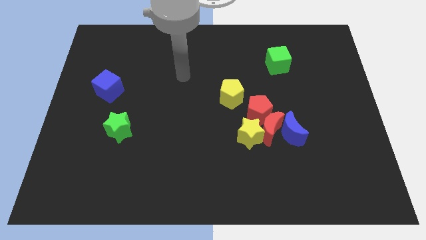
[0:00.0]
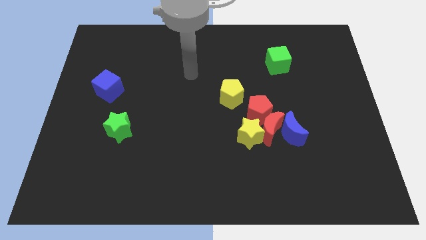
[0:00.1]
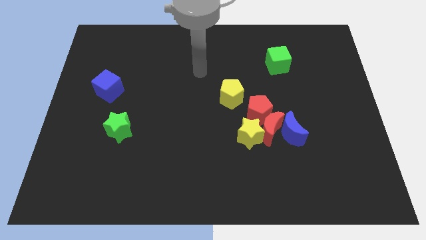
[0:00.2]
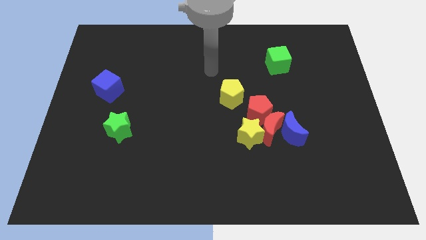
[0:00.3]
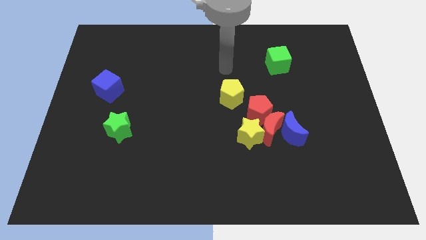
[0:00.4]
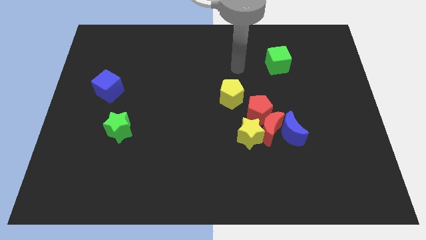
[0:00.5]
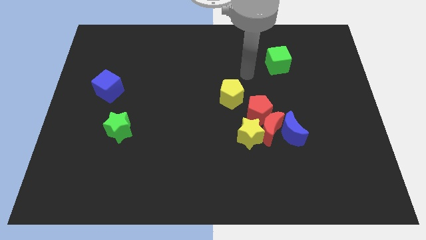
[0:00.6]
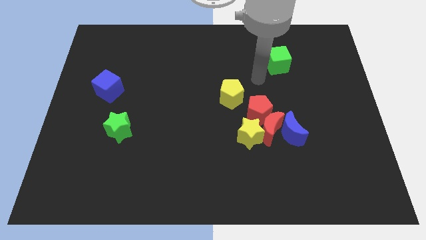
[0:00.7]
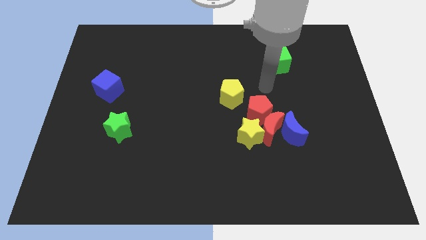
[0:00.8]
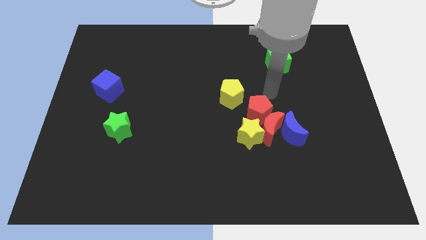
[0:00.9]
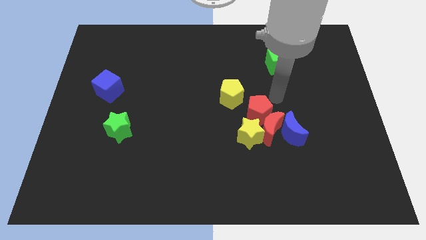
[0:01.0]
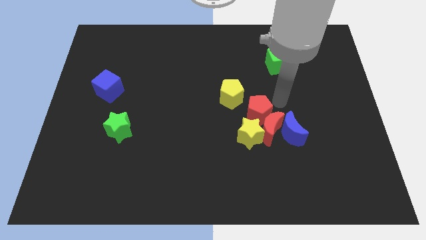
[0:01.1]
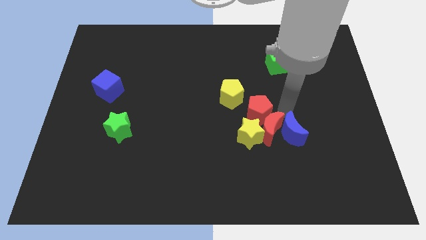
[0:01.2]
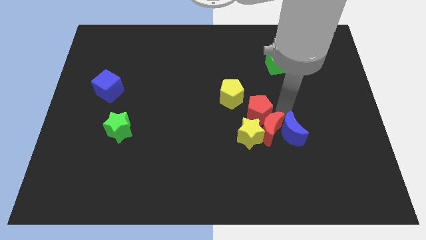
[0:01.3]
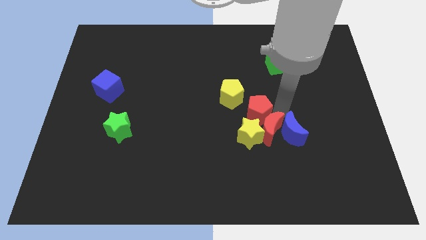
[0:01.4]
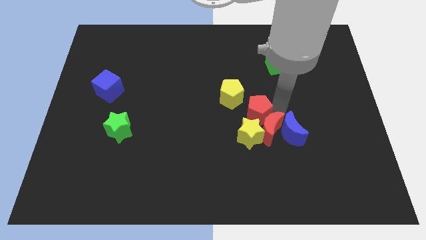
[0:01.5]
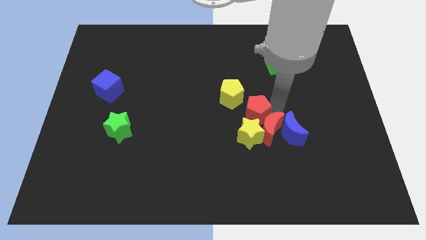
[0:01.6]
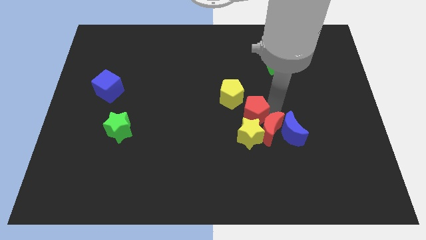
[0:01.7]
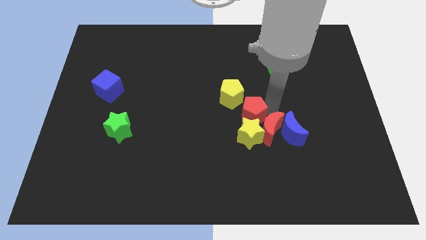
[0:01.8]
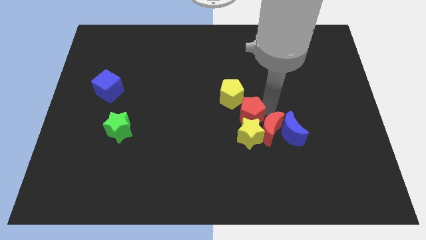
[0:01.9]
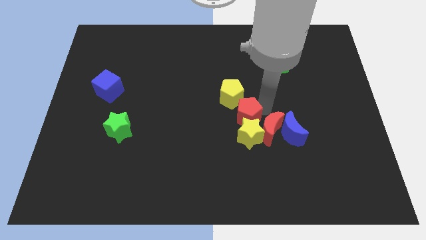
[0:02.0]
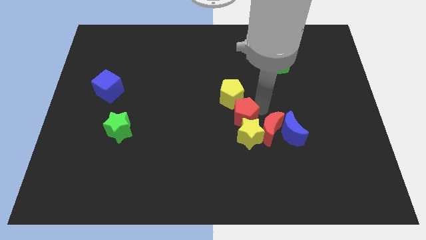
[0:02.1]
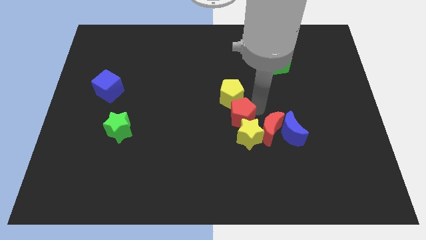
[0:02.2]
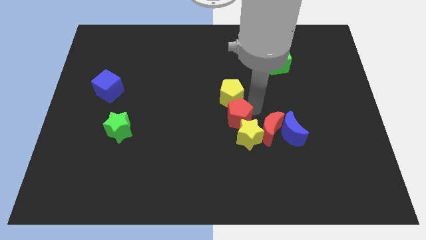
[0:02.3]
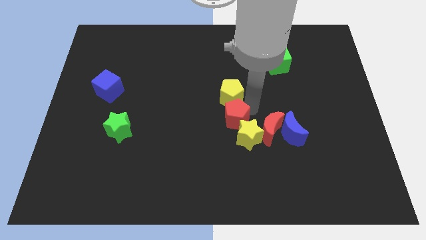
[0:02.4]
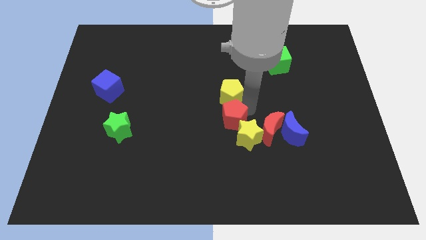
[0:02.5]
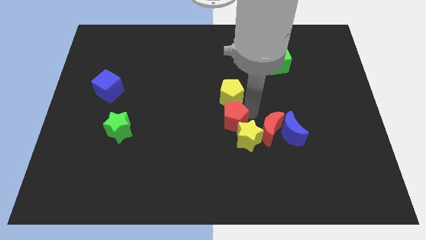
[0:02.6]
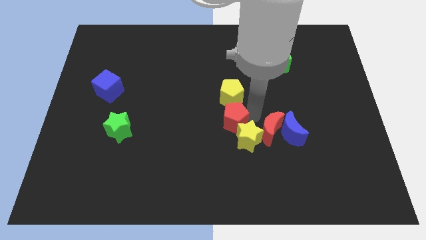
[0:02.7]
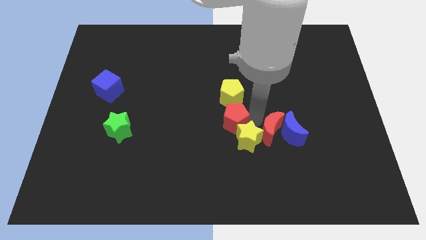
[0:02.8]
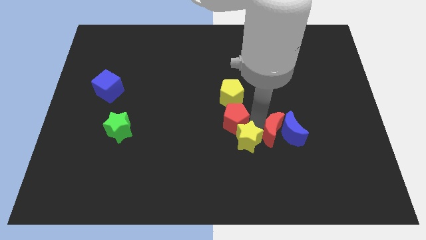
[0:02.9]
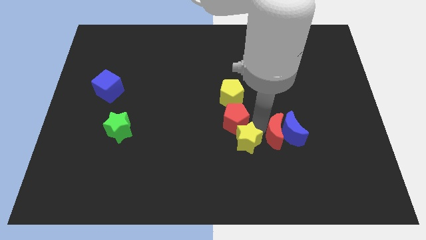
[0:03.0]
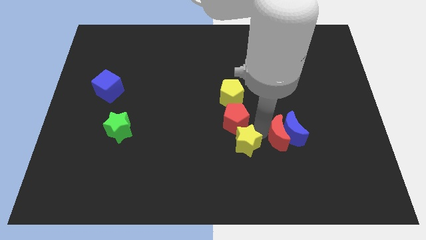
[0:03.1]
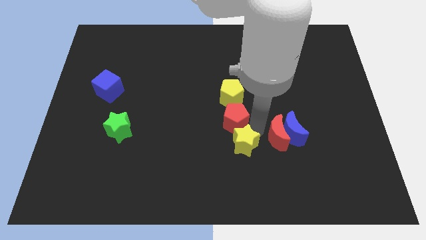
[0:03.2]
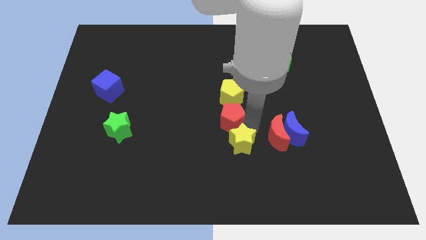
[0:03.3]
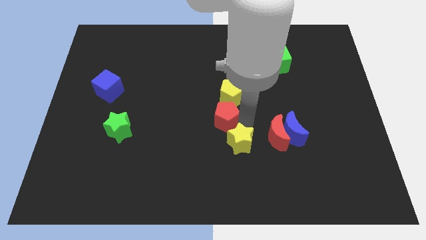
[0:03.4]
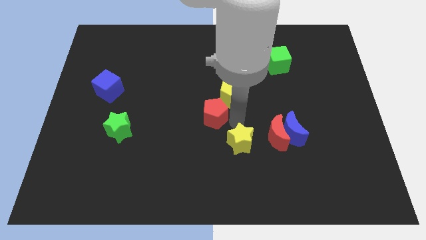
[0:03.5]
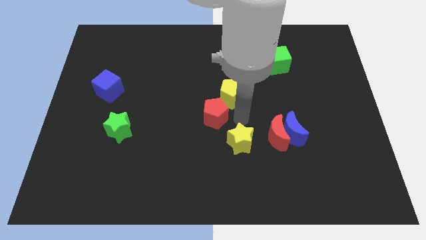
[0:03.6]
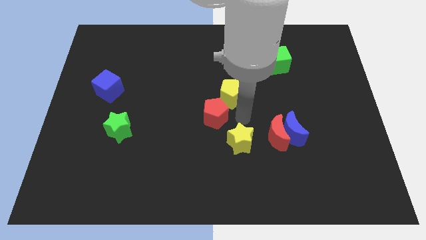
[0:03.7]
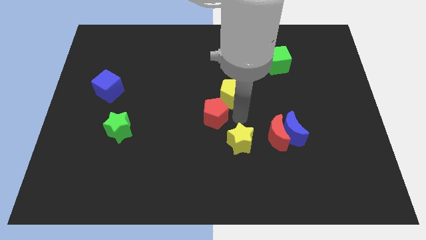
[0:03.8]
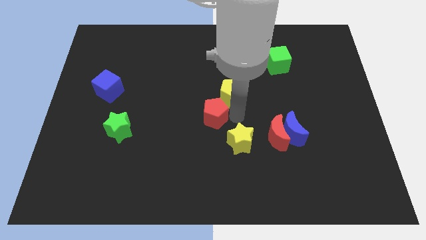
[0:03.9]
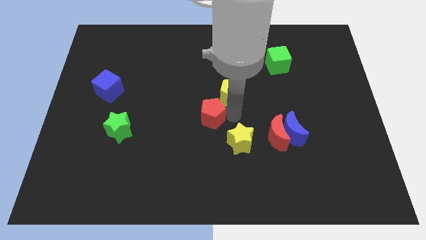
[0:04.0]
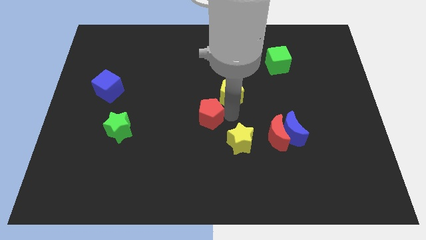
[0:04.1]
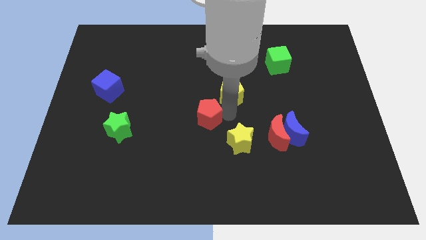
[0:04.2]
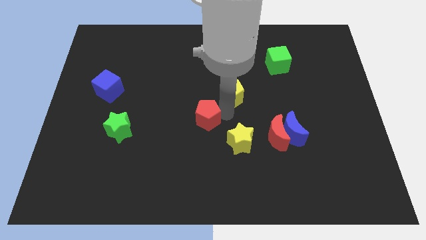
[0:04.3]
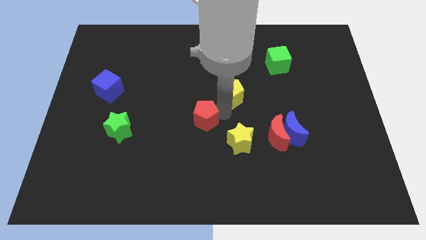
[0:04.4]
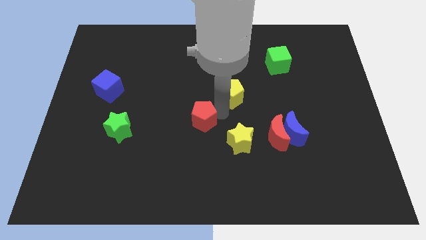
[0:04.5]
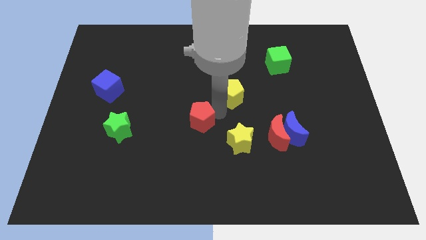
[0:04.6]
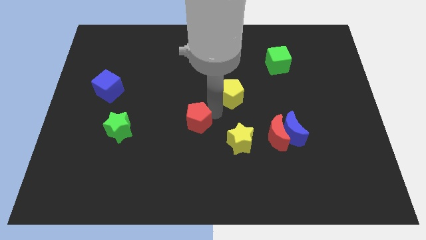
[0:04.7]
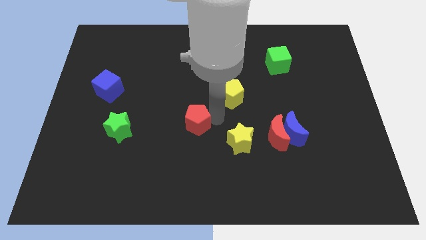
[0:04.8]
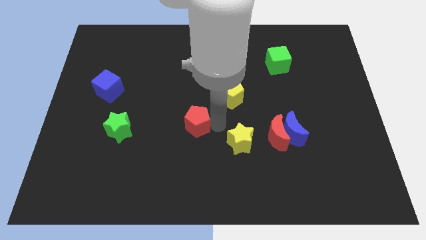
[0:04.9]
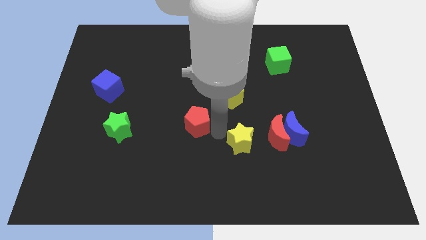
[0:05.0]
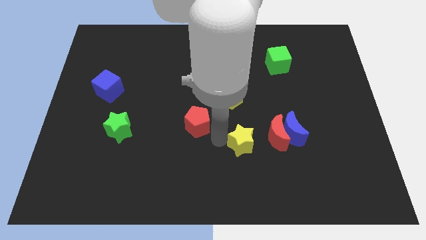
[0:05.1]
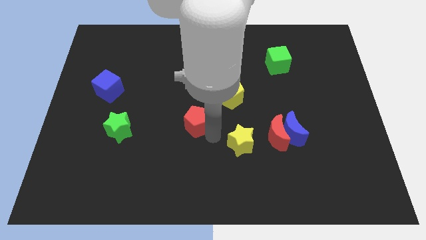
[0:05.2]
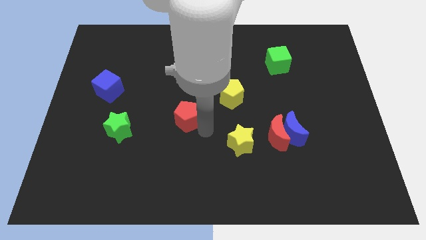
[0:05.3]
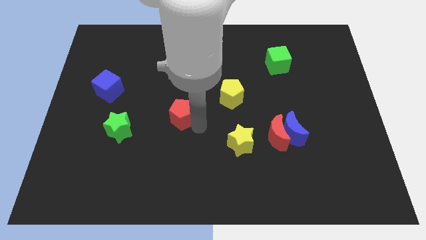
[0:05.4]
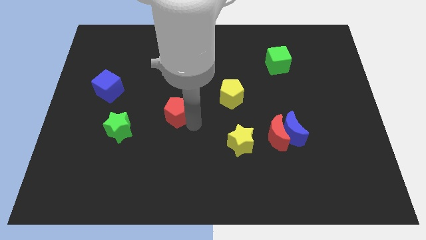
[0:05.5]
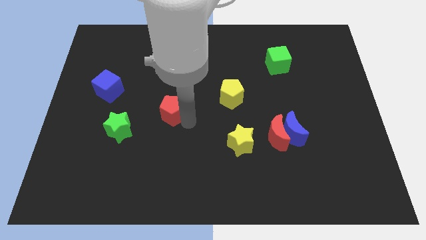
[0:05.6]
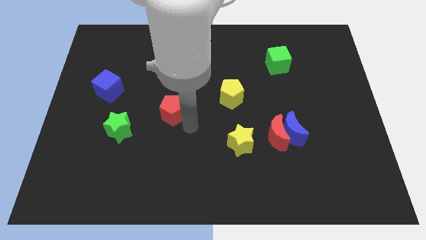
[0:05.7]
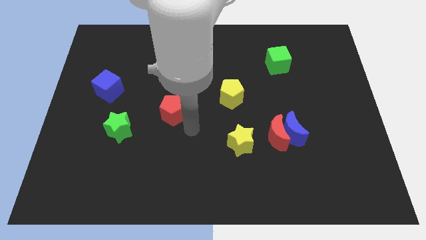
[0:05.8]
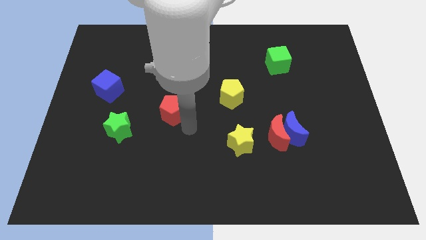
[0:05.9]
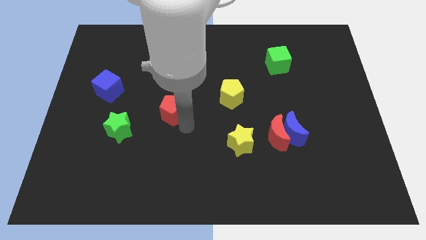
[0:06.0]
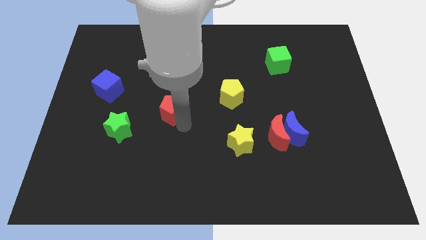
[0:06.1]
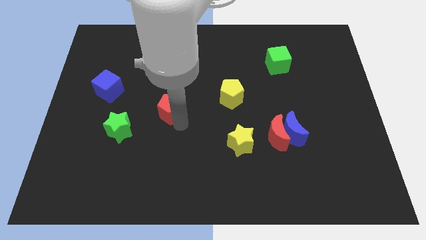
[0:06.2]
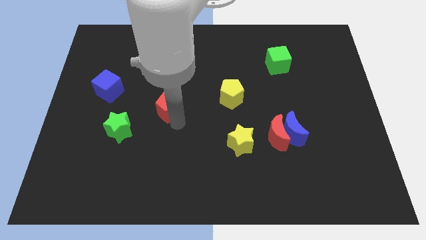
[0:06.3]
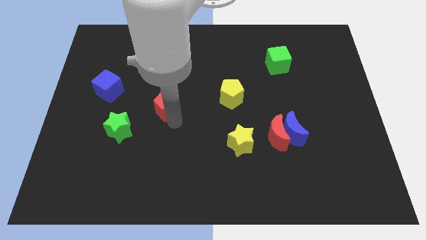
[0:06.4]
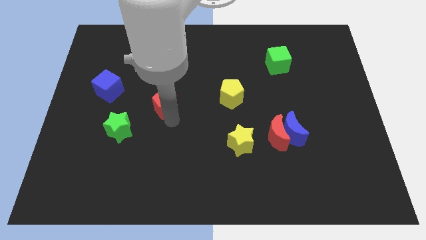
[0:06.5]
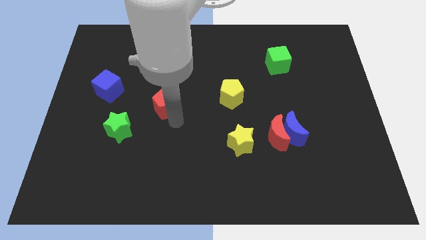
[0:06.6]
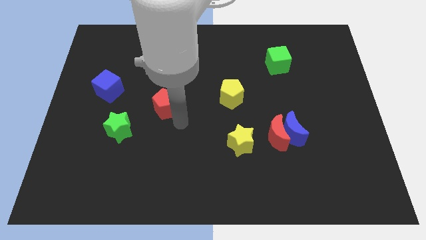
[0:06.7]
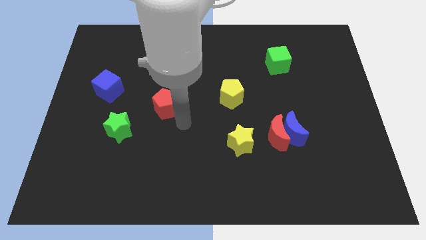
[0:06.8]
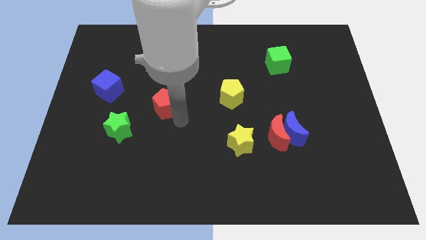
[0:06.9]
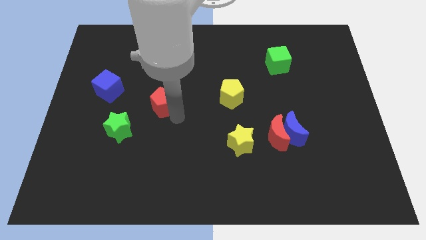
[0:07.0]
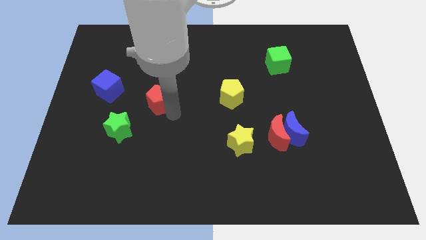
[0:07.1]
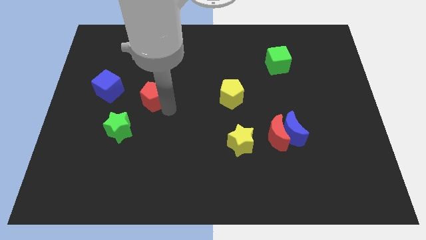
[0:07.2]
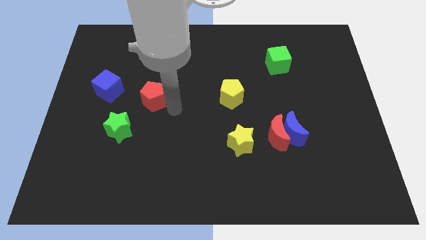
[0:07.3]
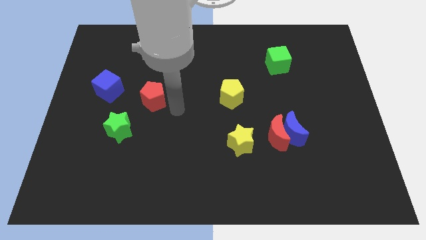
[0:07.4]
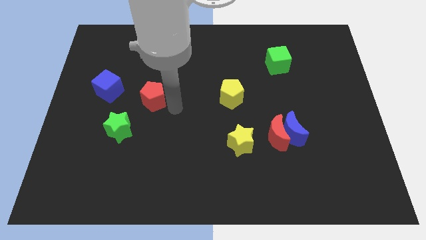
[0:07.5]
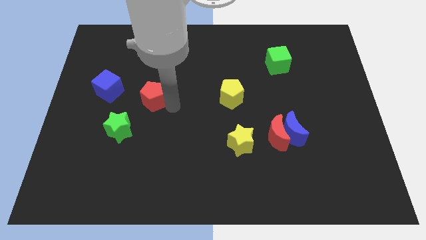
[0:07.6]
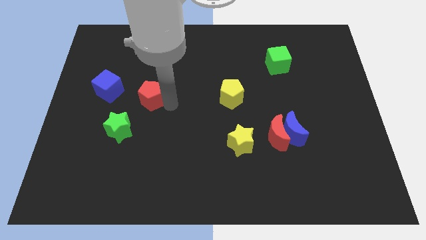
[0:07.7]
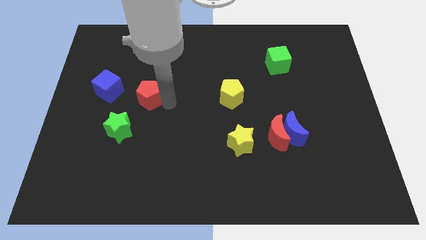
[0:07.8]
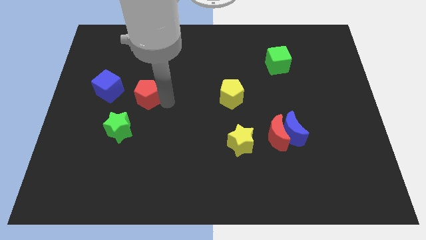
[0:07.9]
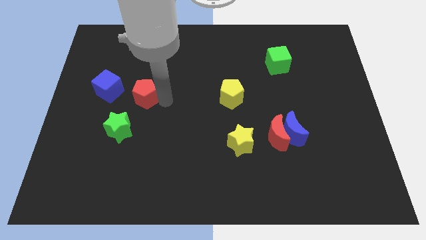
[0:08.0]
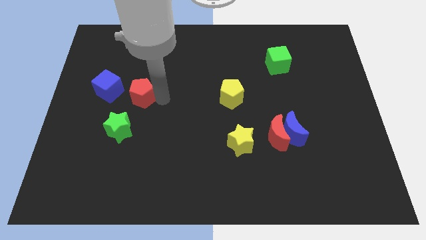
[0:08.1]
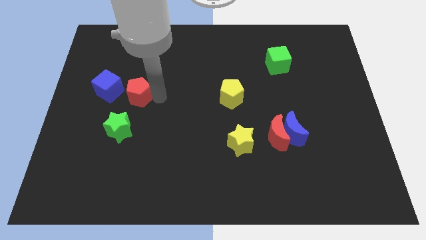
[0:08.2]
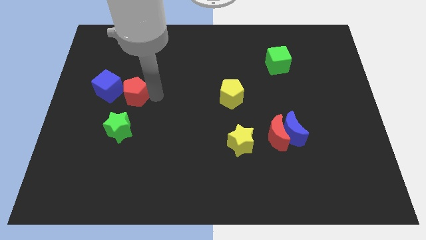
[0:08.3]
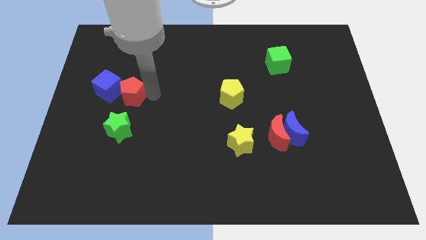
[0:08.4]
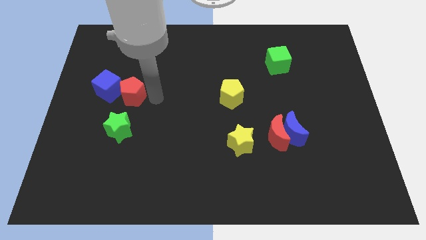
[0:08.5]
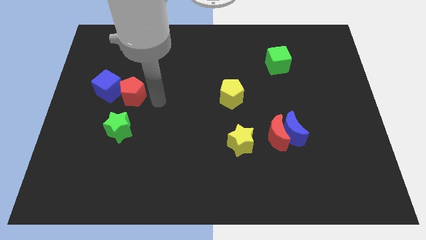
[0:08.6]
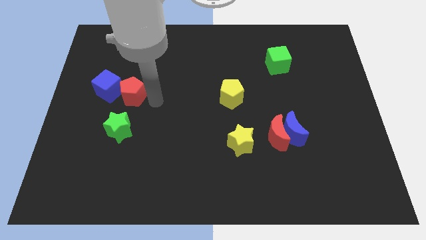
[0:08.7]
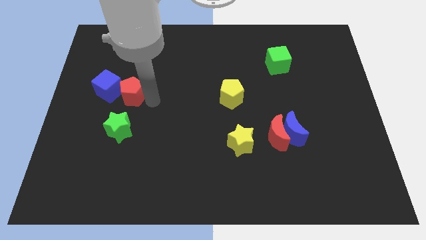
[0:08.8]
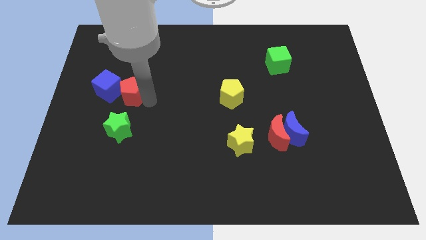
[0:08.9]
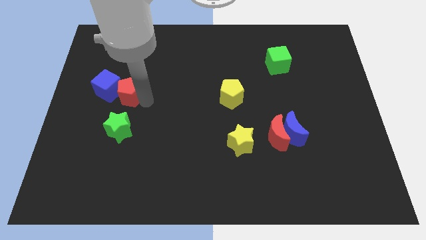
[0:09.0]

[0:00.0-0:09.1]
slide the red pentagon to the blue cube
